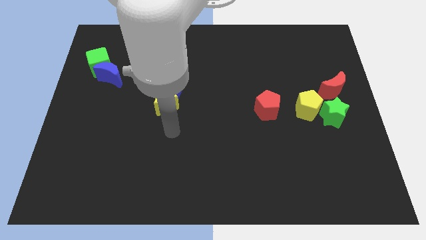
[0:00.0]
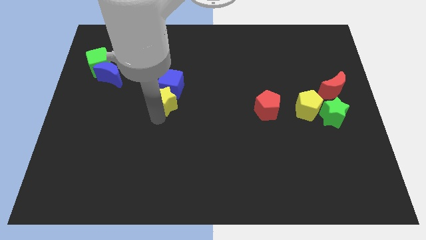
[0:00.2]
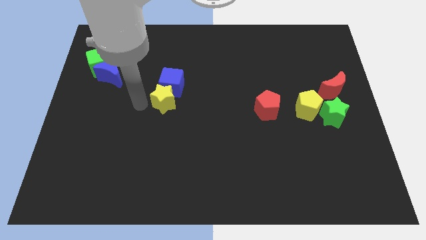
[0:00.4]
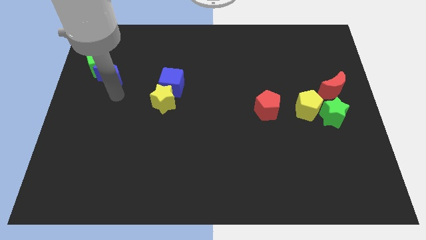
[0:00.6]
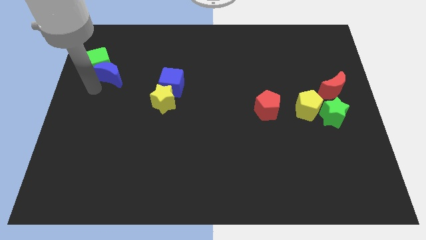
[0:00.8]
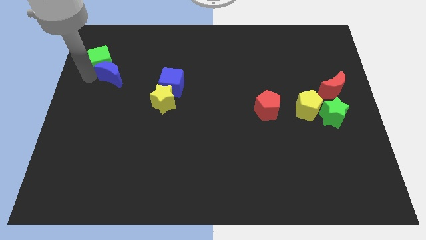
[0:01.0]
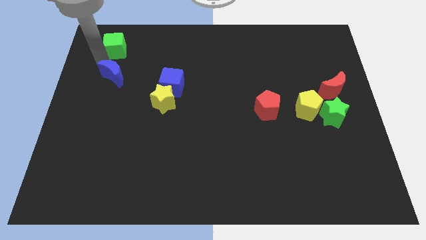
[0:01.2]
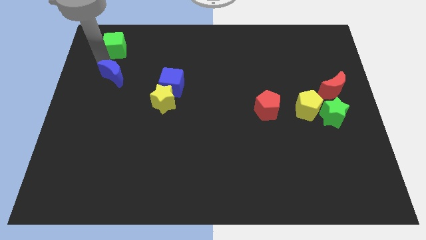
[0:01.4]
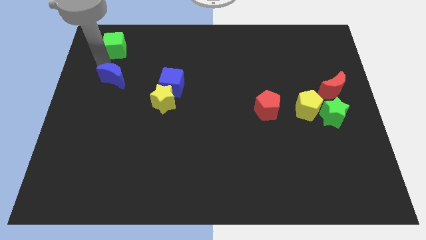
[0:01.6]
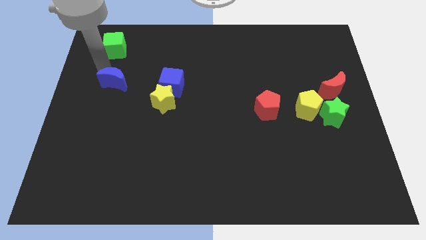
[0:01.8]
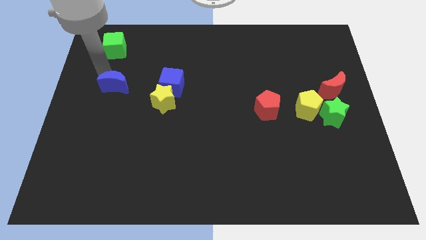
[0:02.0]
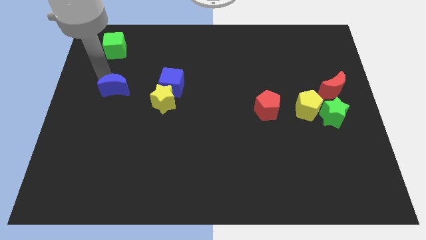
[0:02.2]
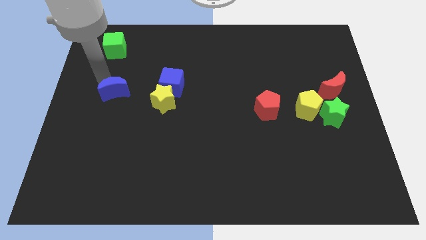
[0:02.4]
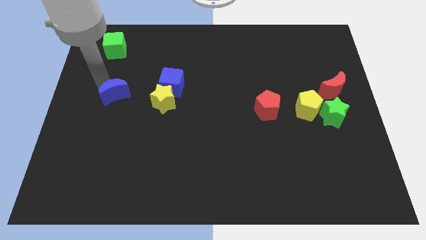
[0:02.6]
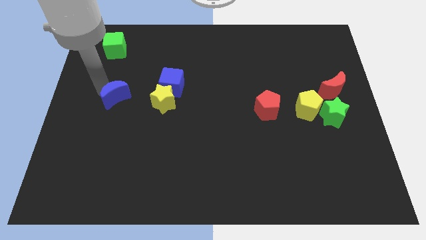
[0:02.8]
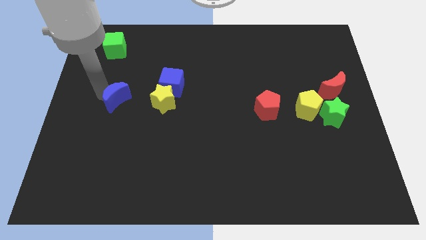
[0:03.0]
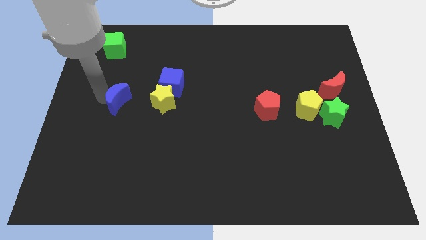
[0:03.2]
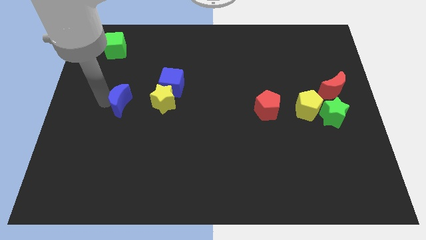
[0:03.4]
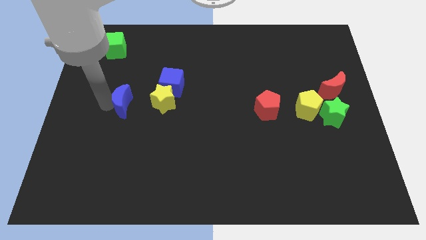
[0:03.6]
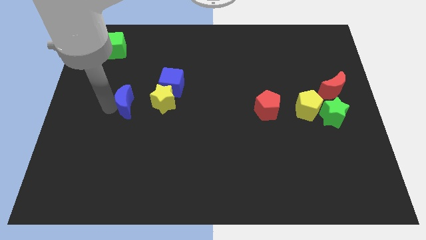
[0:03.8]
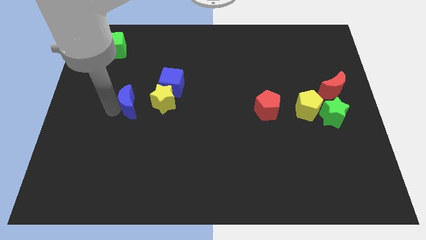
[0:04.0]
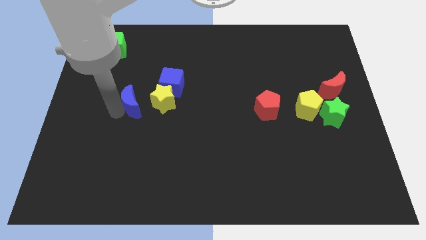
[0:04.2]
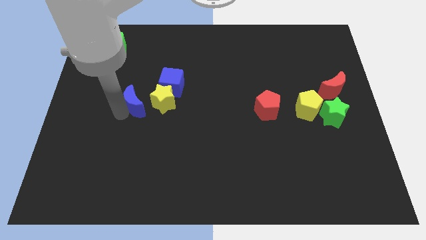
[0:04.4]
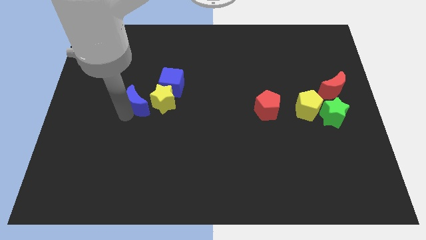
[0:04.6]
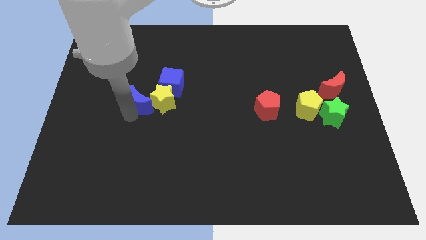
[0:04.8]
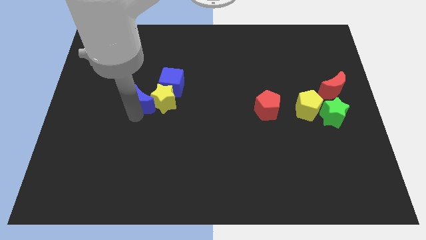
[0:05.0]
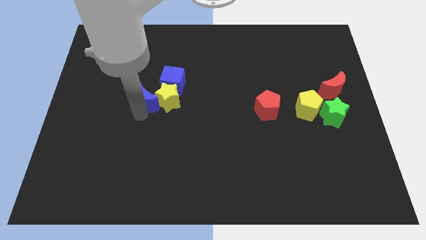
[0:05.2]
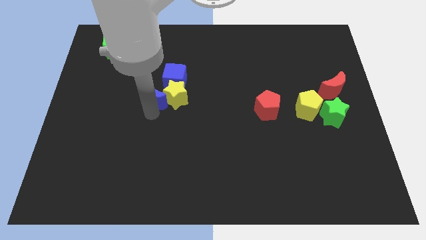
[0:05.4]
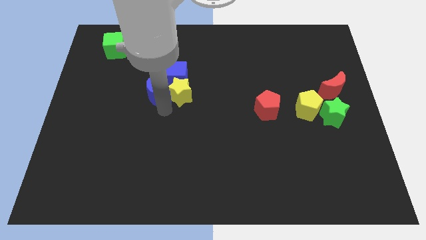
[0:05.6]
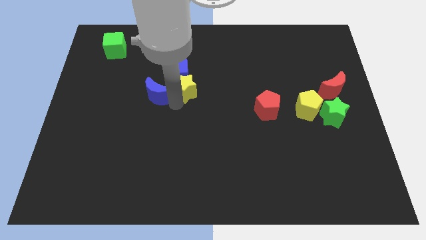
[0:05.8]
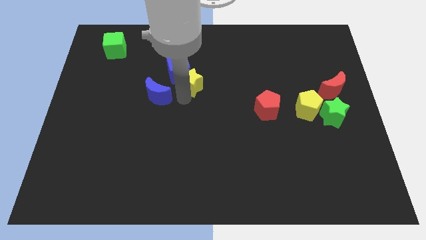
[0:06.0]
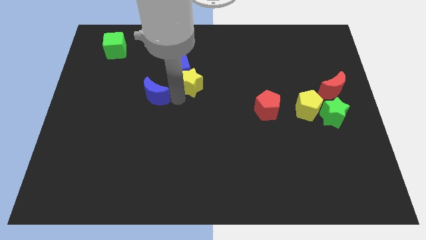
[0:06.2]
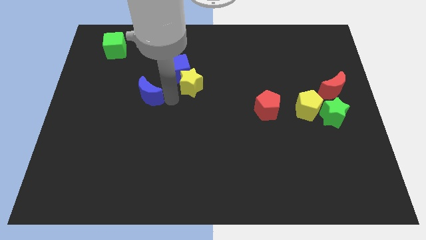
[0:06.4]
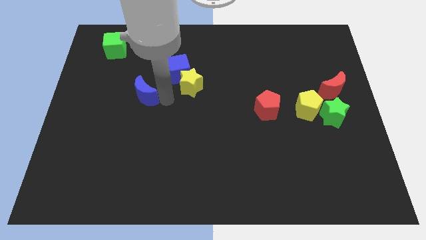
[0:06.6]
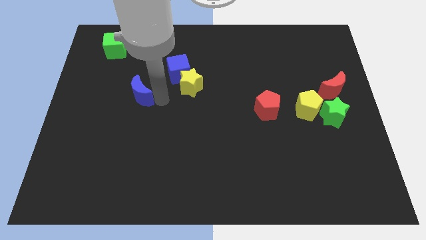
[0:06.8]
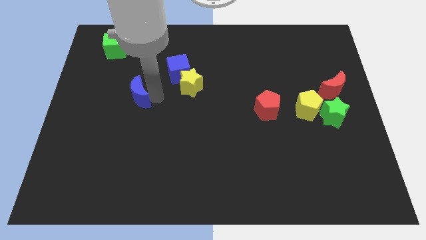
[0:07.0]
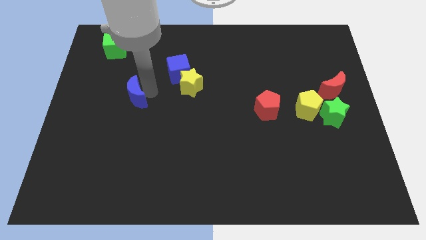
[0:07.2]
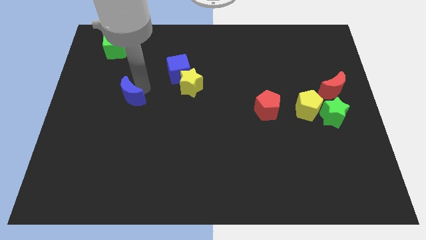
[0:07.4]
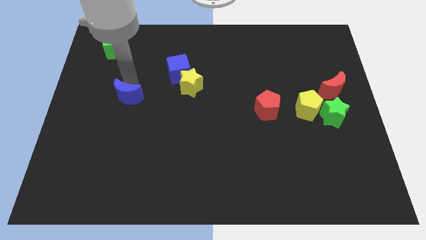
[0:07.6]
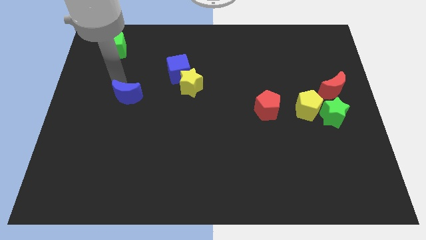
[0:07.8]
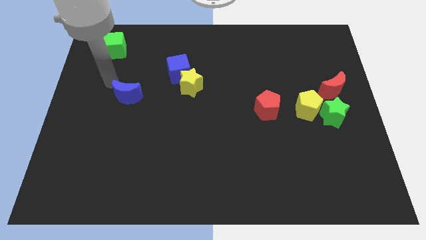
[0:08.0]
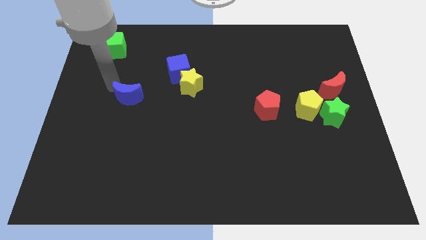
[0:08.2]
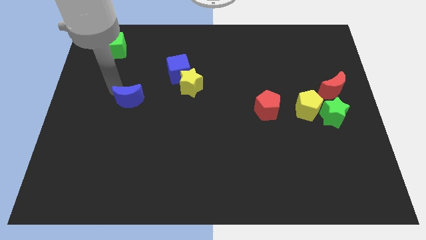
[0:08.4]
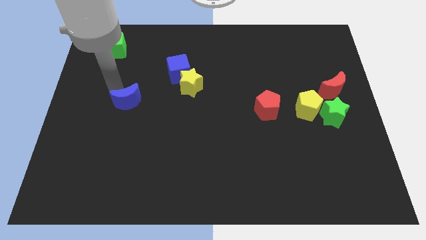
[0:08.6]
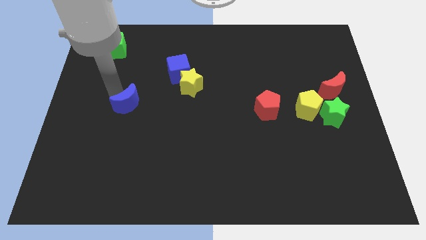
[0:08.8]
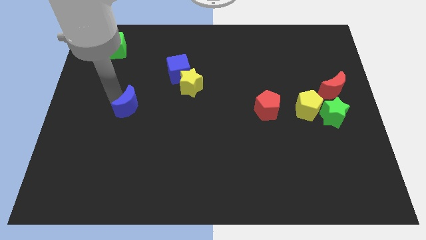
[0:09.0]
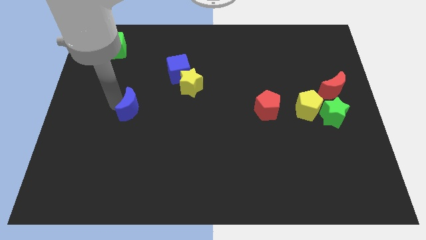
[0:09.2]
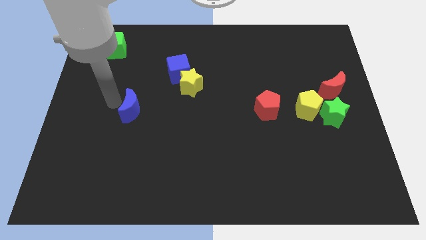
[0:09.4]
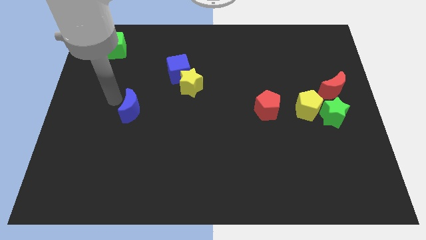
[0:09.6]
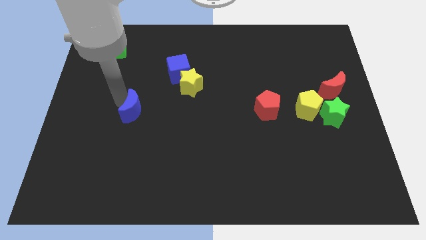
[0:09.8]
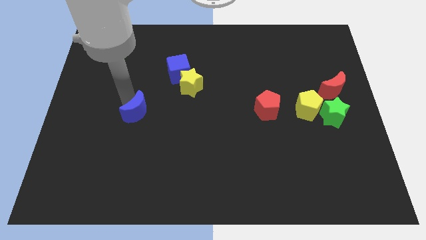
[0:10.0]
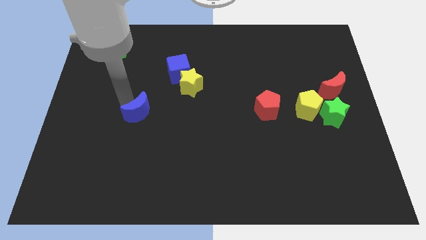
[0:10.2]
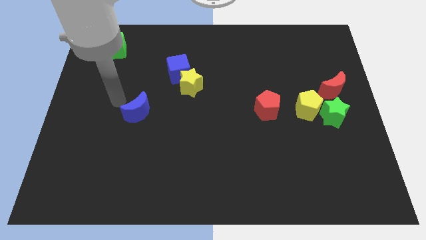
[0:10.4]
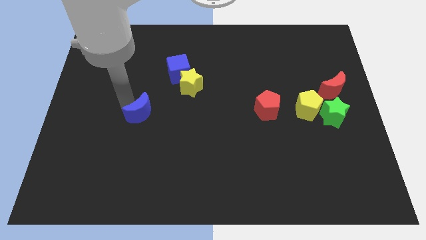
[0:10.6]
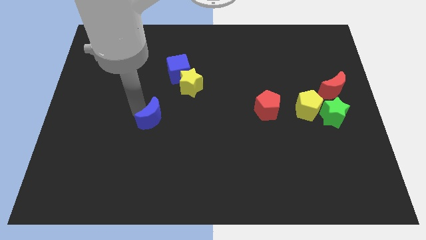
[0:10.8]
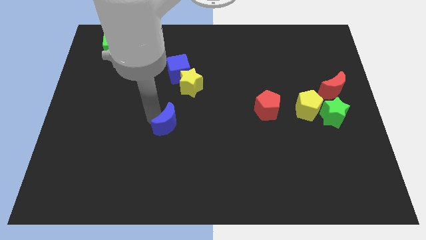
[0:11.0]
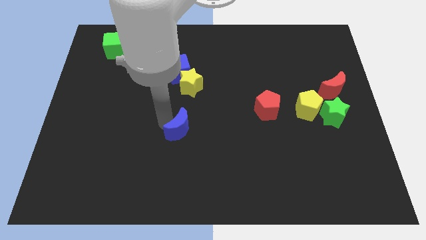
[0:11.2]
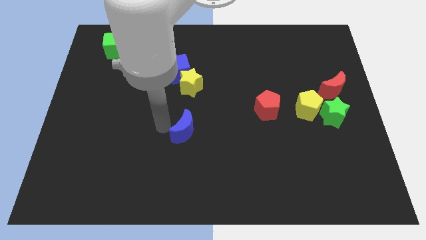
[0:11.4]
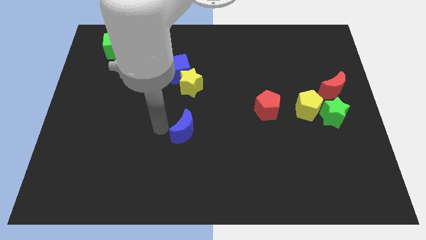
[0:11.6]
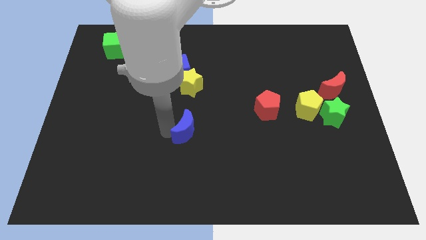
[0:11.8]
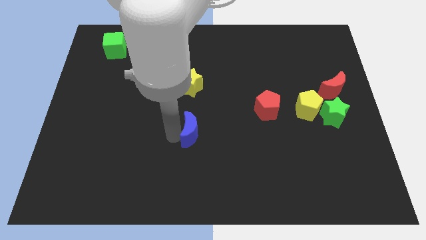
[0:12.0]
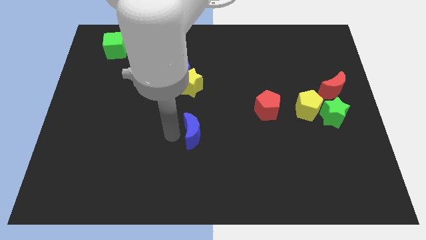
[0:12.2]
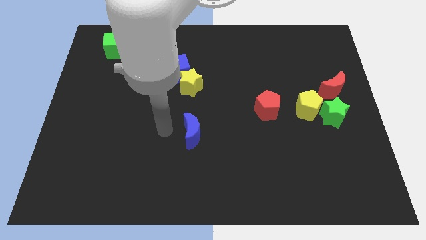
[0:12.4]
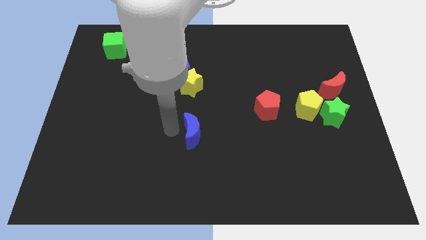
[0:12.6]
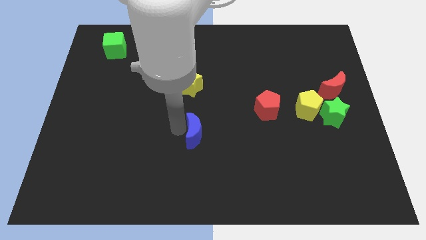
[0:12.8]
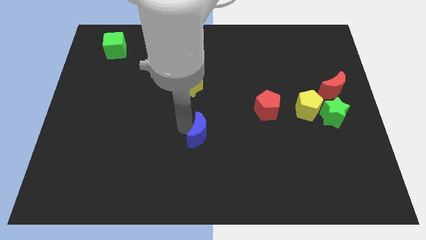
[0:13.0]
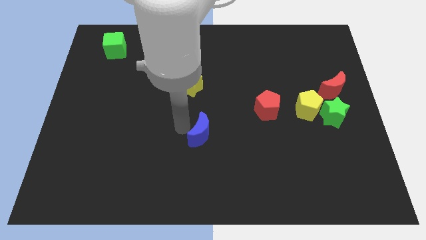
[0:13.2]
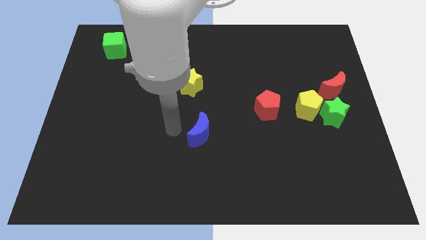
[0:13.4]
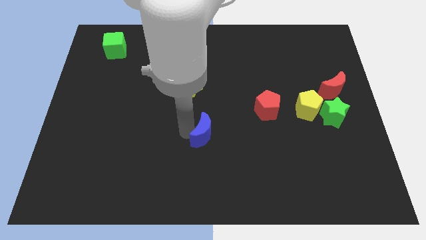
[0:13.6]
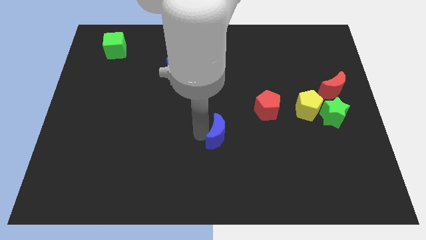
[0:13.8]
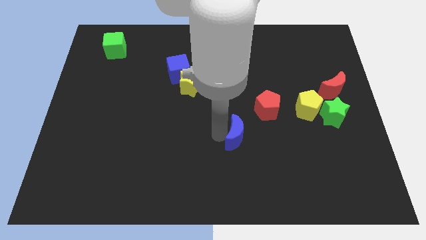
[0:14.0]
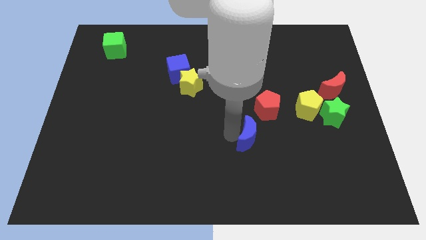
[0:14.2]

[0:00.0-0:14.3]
put the blue moon to the bottom side of the red pentagon
